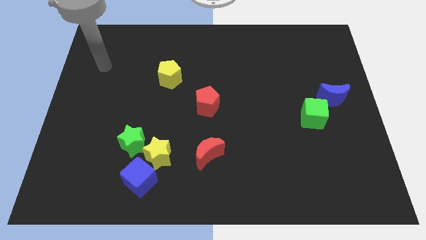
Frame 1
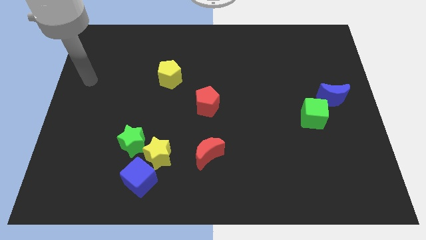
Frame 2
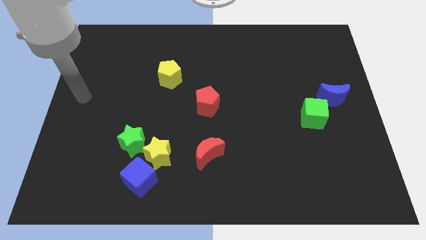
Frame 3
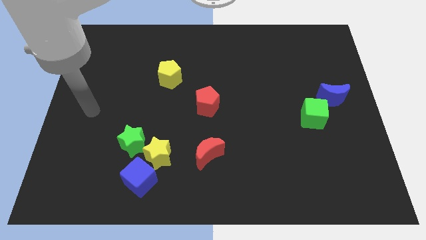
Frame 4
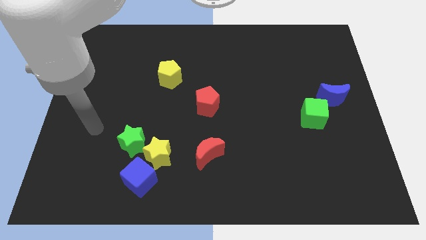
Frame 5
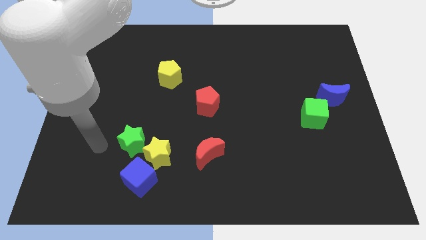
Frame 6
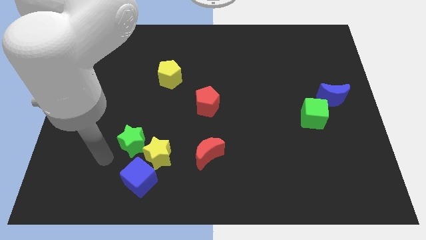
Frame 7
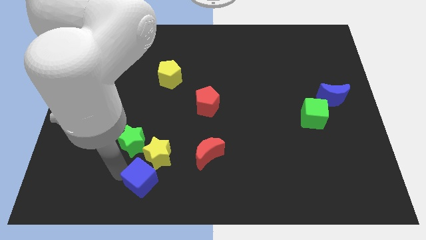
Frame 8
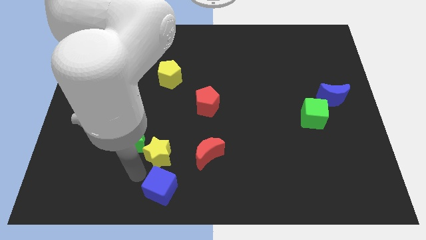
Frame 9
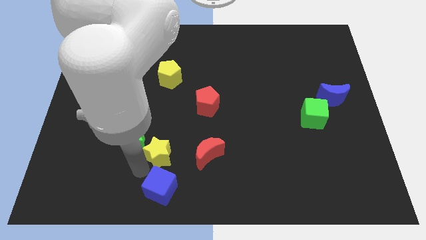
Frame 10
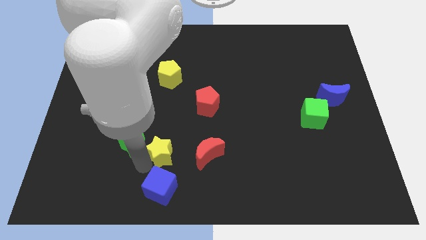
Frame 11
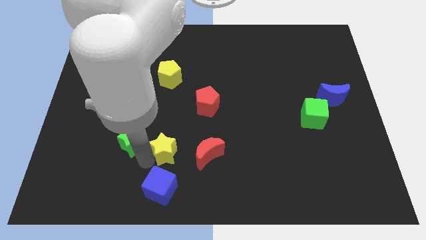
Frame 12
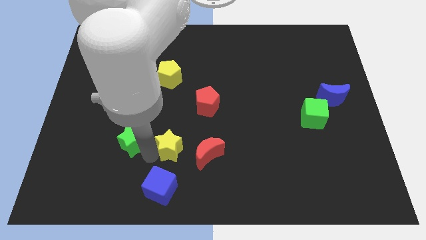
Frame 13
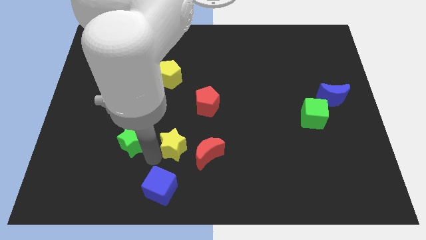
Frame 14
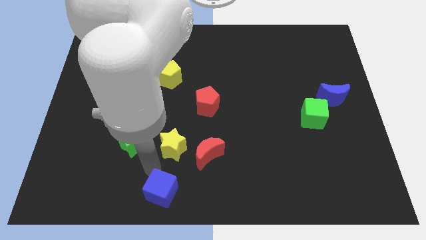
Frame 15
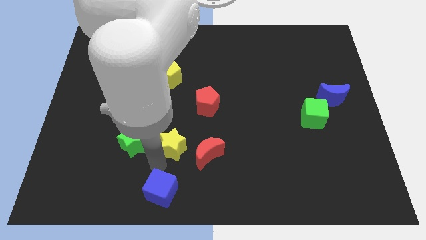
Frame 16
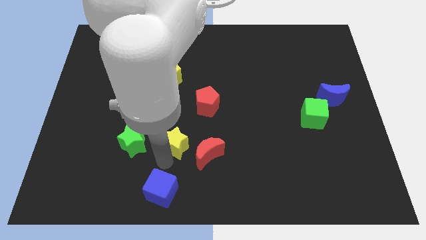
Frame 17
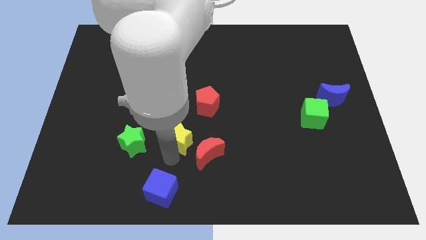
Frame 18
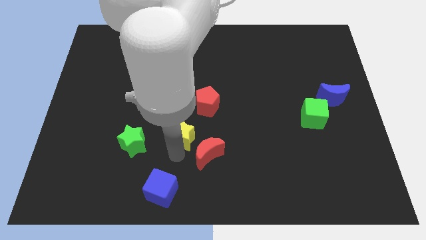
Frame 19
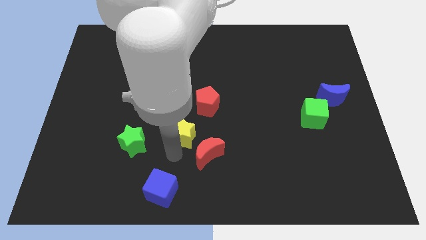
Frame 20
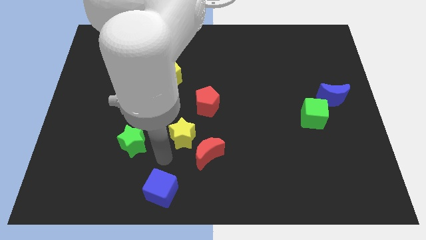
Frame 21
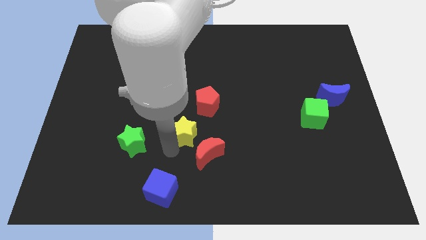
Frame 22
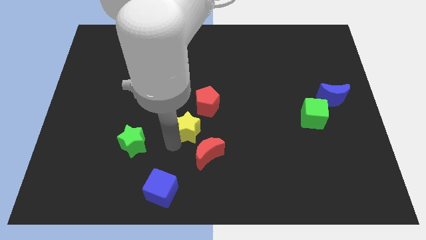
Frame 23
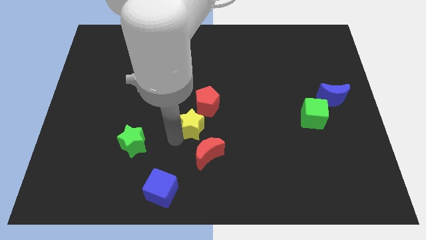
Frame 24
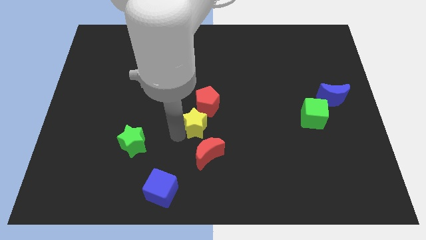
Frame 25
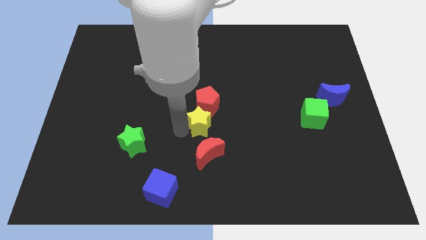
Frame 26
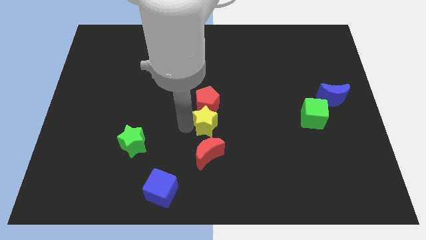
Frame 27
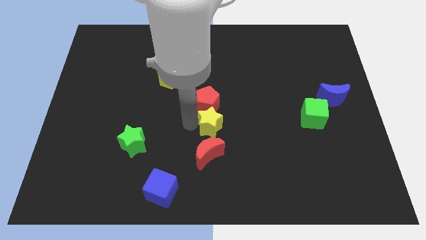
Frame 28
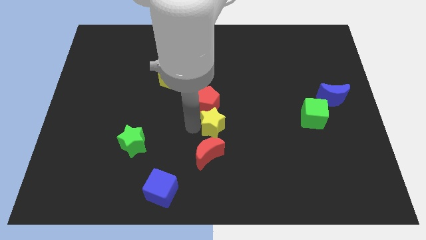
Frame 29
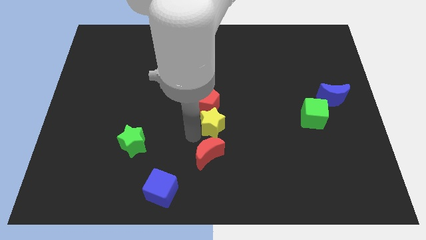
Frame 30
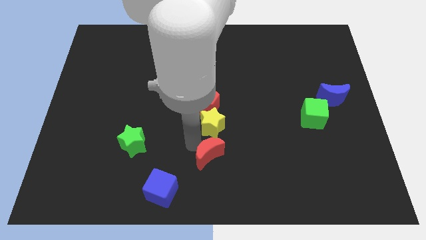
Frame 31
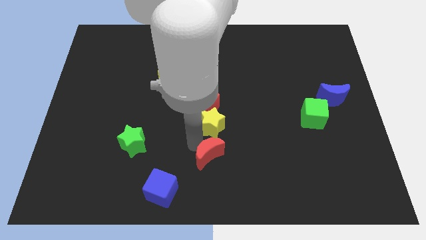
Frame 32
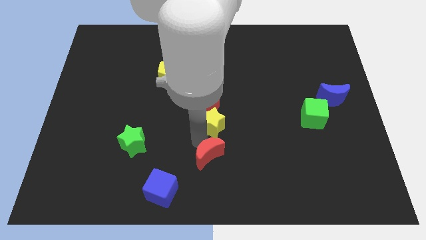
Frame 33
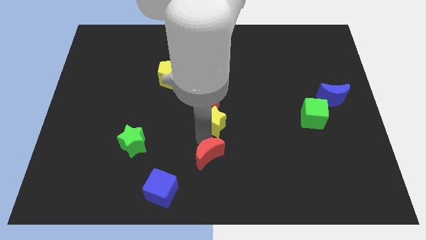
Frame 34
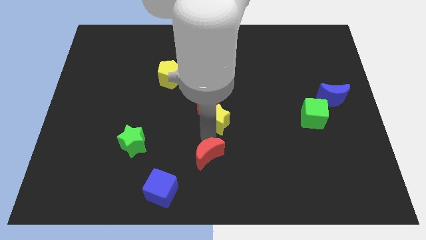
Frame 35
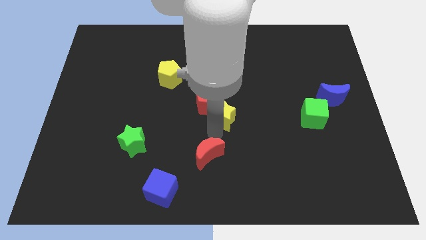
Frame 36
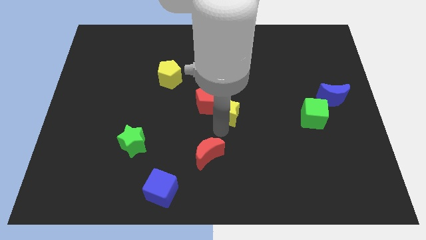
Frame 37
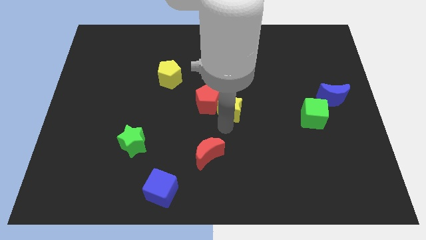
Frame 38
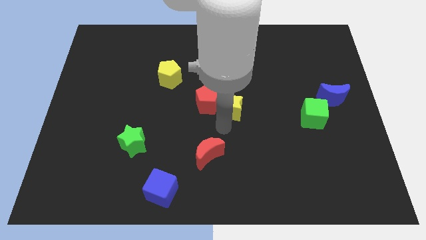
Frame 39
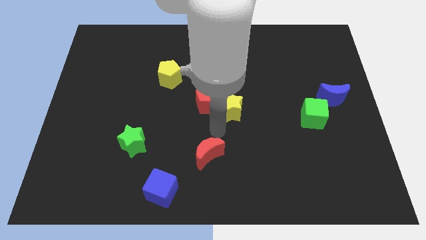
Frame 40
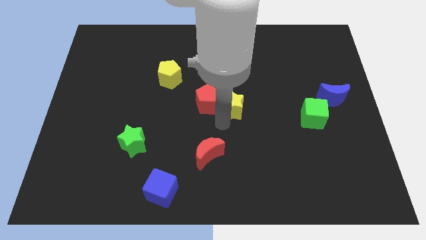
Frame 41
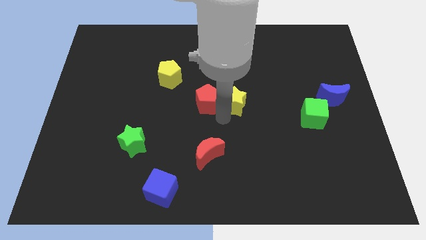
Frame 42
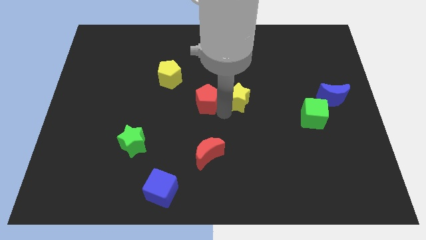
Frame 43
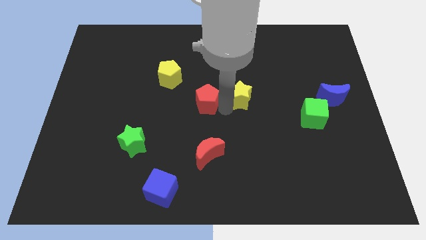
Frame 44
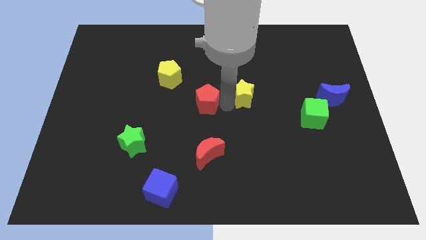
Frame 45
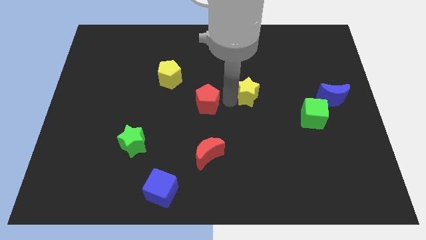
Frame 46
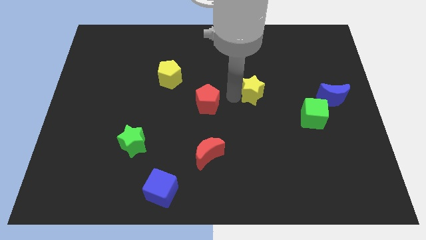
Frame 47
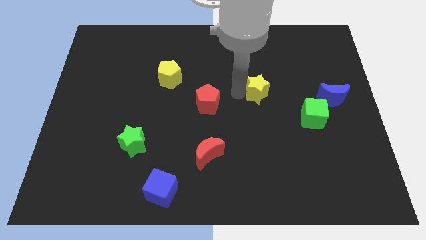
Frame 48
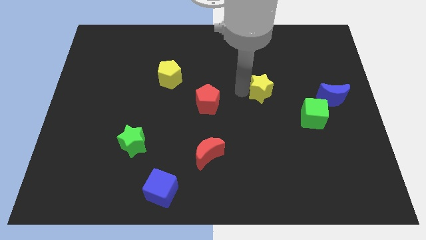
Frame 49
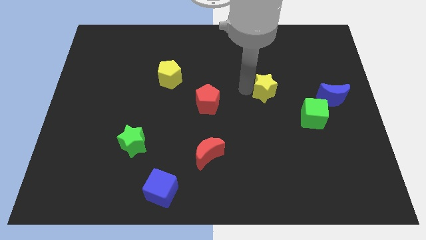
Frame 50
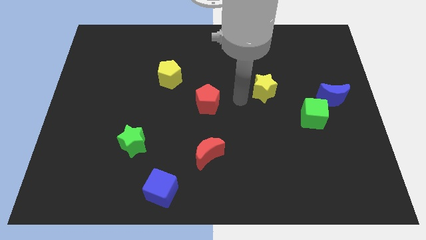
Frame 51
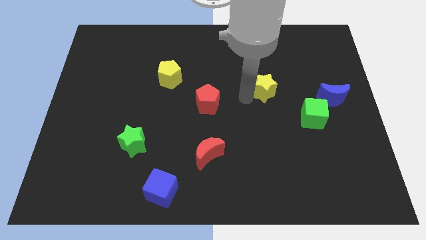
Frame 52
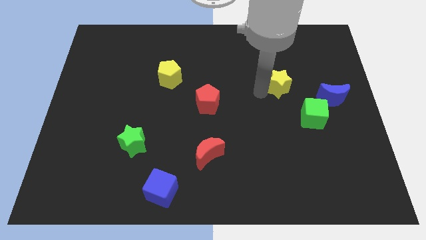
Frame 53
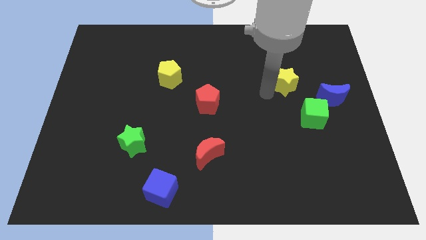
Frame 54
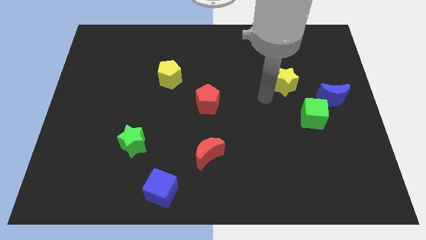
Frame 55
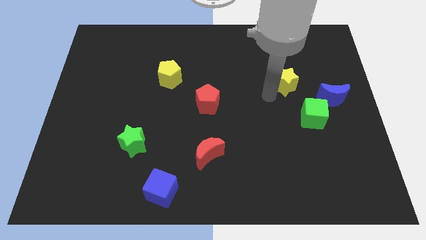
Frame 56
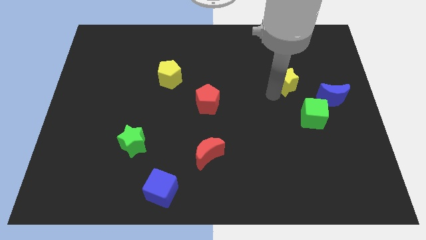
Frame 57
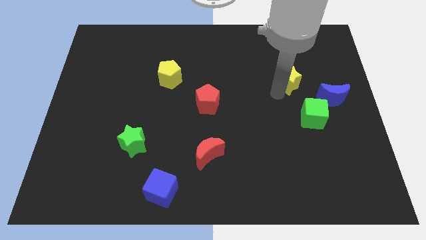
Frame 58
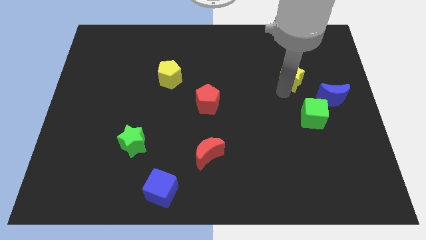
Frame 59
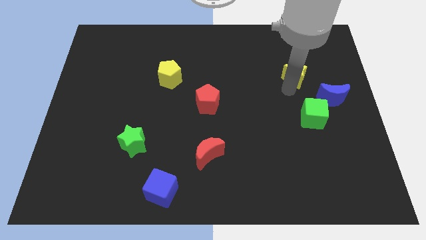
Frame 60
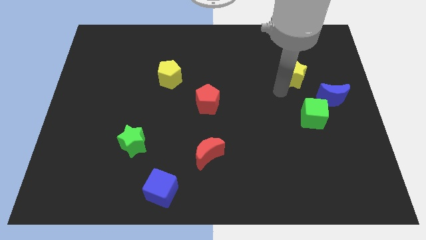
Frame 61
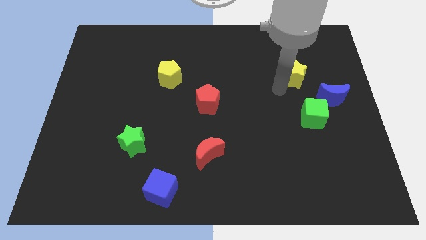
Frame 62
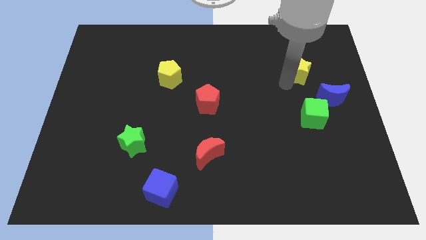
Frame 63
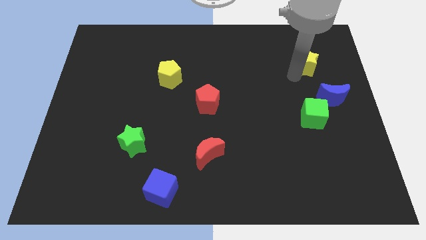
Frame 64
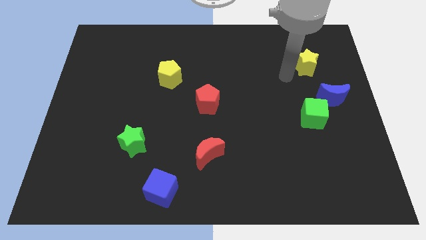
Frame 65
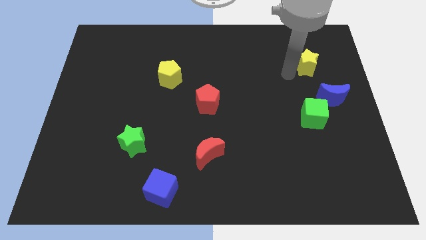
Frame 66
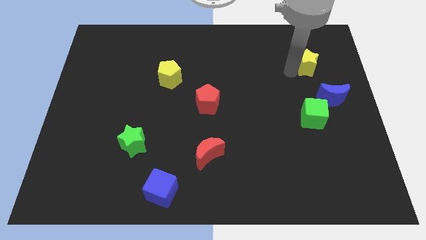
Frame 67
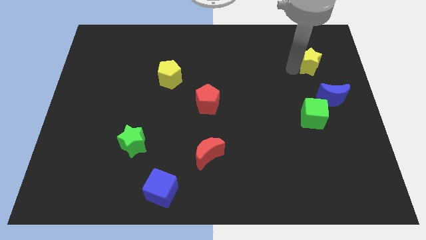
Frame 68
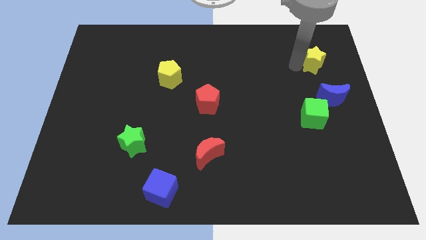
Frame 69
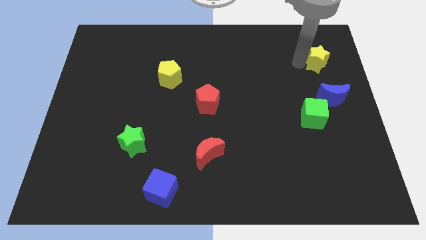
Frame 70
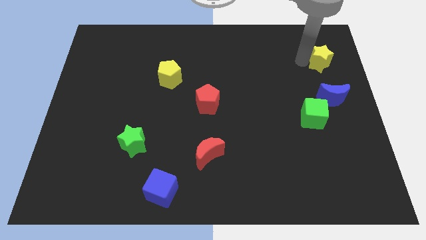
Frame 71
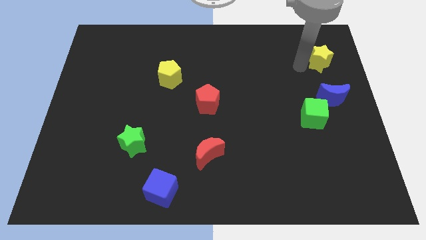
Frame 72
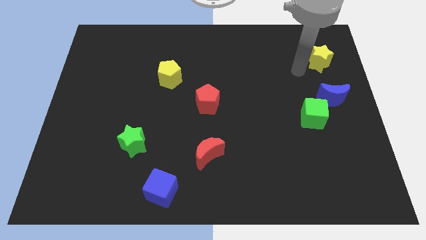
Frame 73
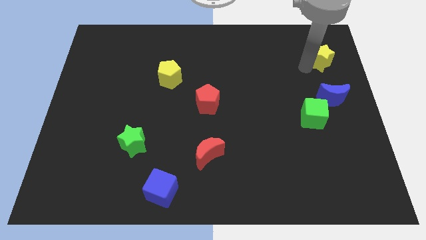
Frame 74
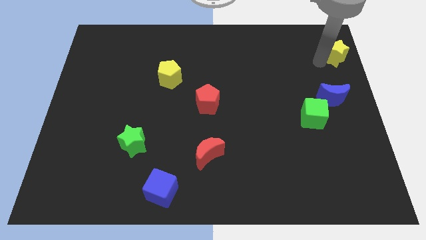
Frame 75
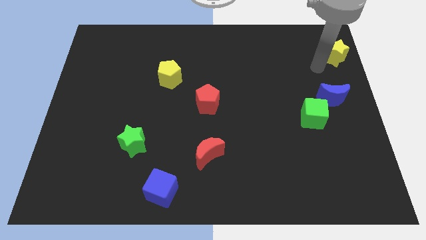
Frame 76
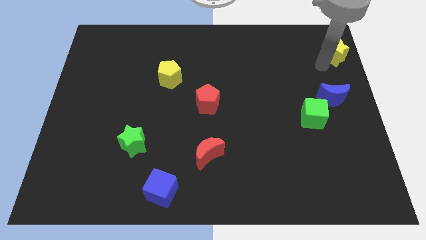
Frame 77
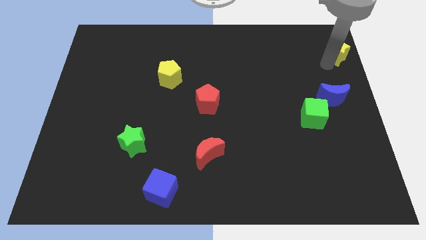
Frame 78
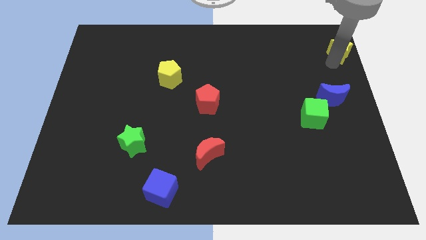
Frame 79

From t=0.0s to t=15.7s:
slide the yellow star to the top right corner
